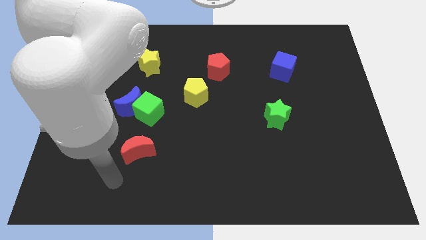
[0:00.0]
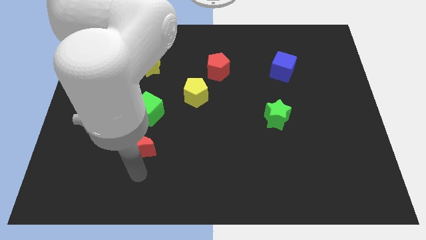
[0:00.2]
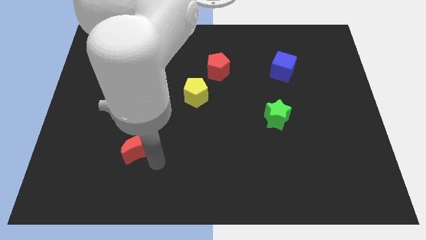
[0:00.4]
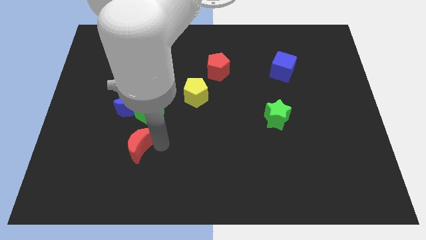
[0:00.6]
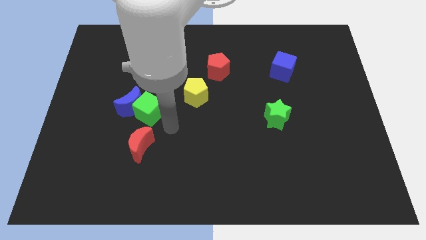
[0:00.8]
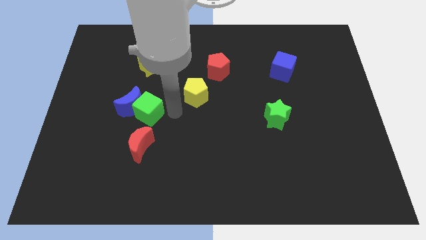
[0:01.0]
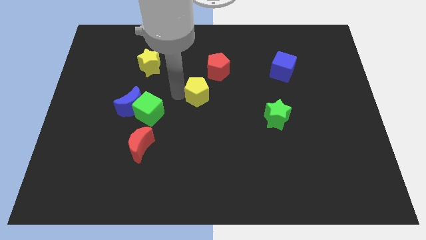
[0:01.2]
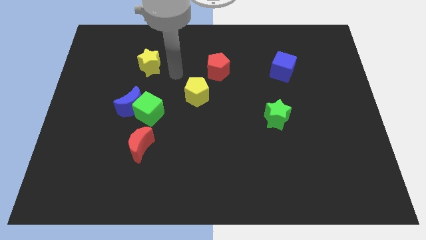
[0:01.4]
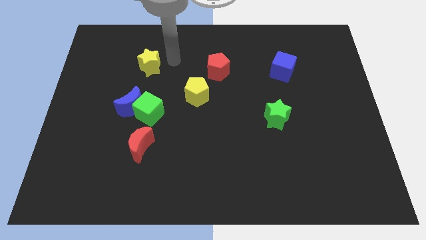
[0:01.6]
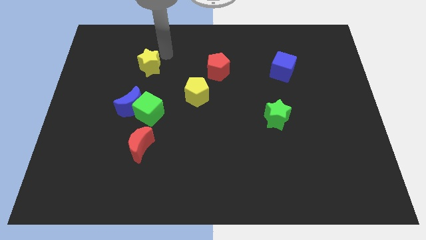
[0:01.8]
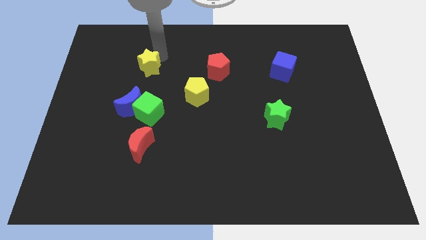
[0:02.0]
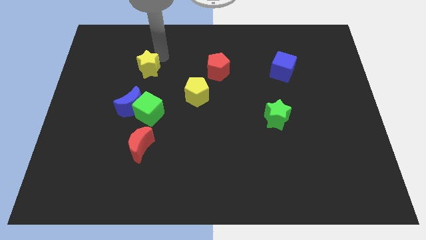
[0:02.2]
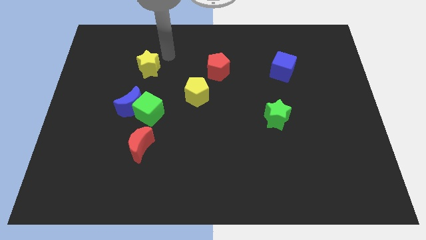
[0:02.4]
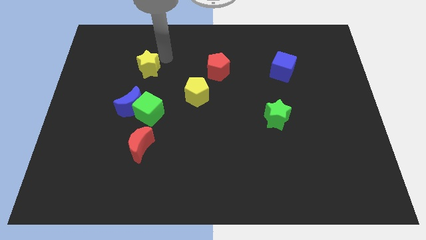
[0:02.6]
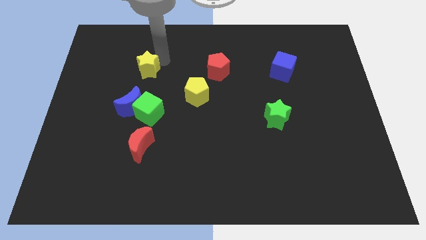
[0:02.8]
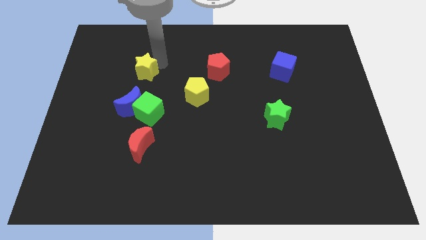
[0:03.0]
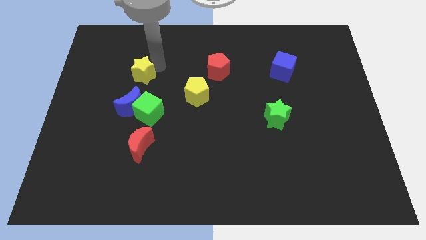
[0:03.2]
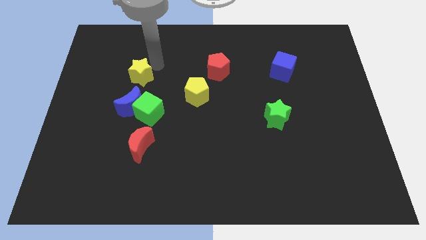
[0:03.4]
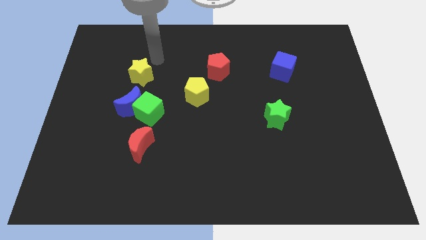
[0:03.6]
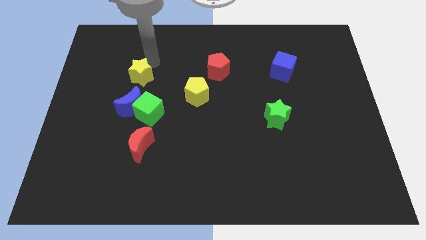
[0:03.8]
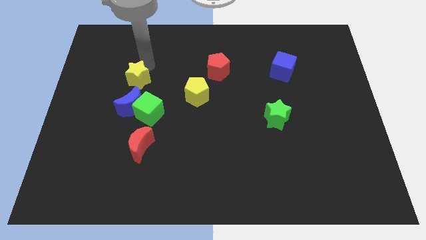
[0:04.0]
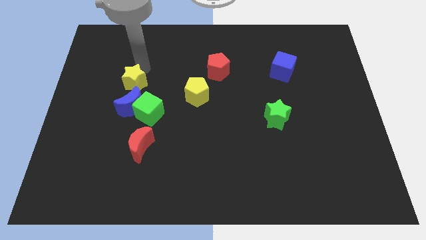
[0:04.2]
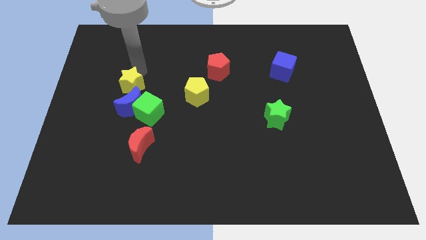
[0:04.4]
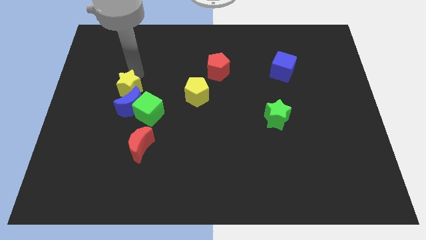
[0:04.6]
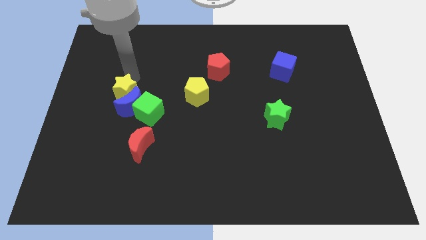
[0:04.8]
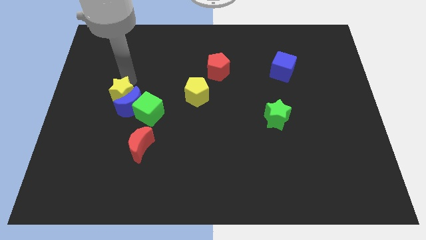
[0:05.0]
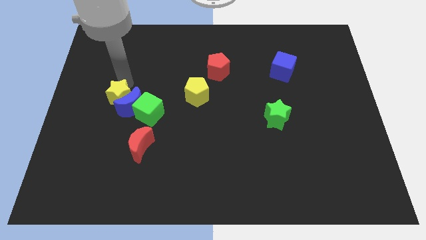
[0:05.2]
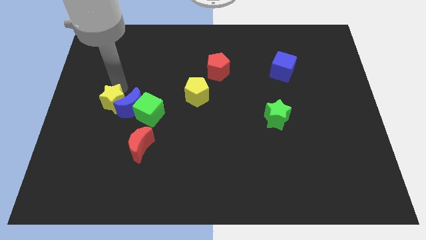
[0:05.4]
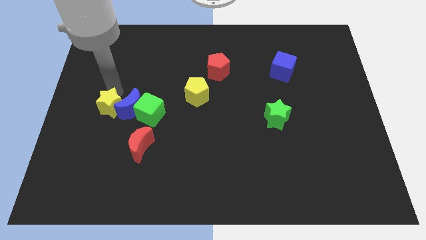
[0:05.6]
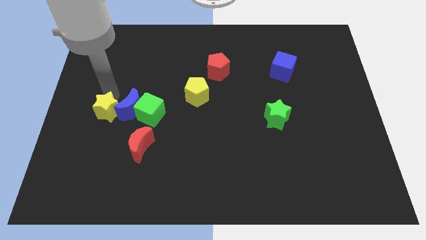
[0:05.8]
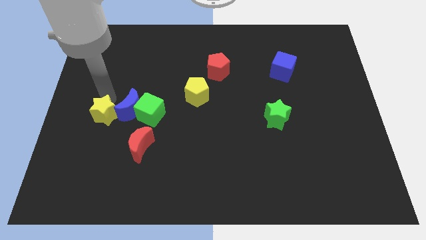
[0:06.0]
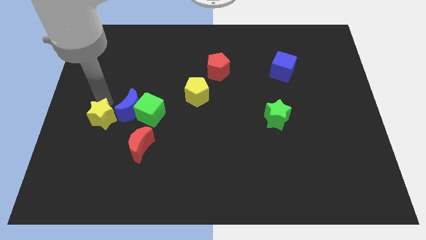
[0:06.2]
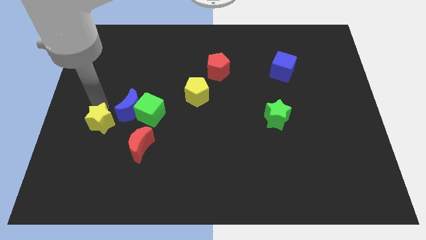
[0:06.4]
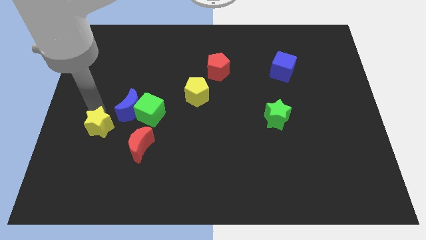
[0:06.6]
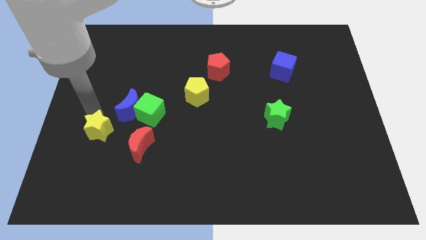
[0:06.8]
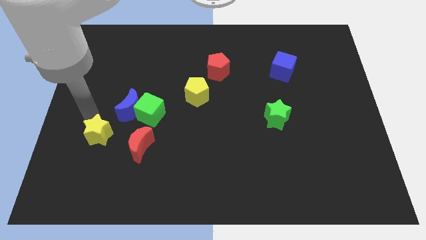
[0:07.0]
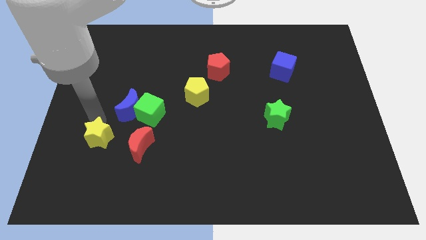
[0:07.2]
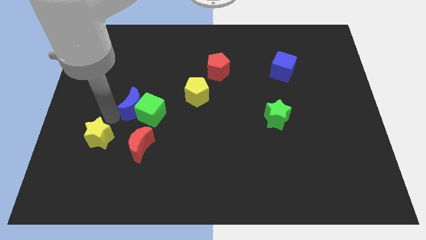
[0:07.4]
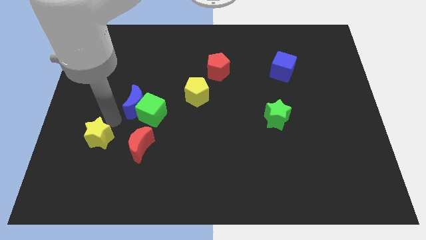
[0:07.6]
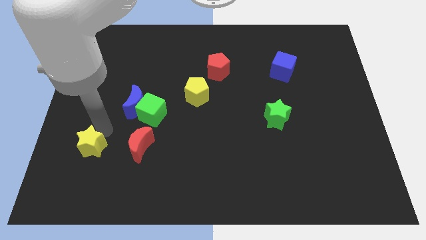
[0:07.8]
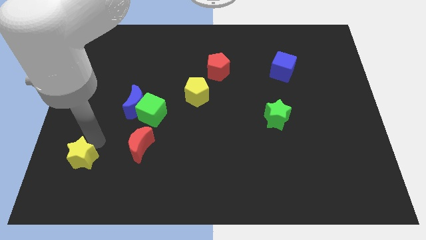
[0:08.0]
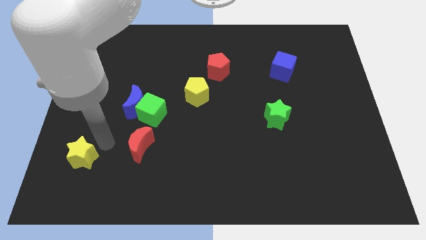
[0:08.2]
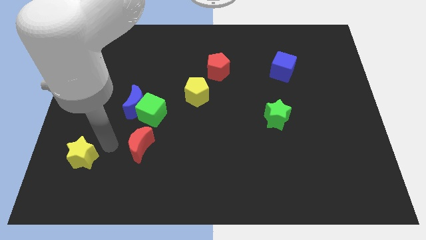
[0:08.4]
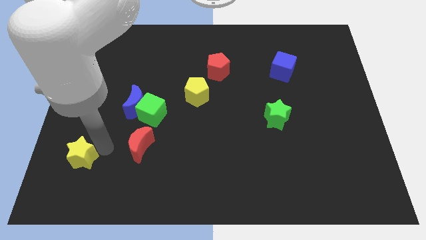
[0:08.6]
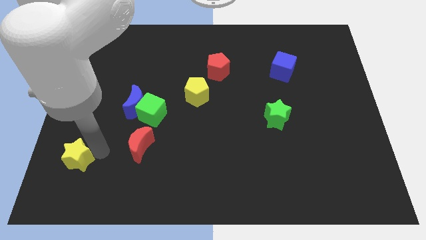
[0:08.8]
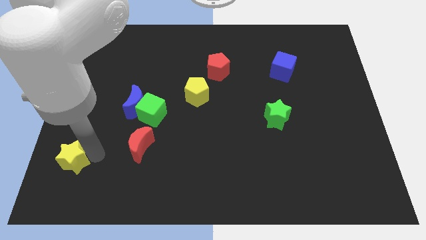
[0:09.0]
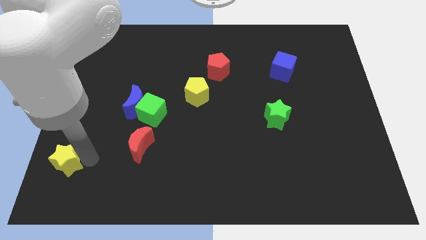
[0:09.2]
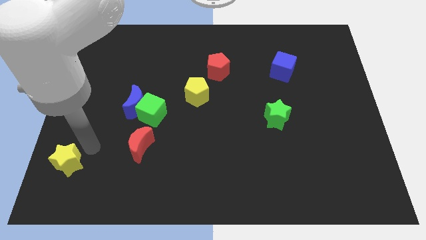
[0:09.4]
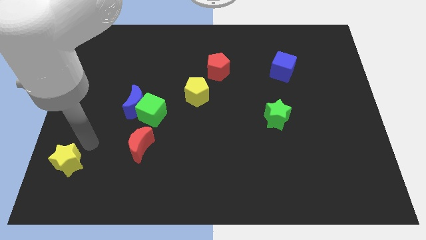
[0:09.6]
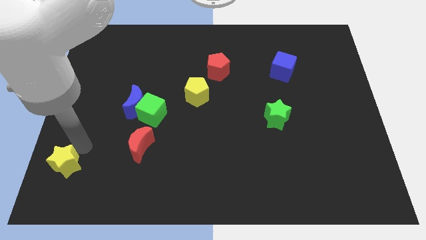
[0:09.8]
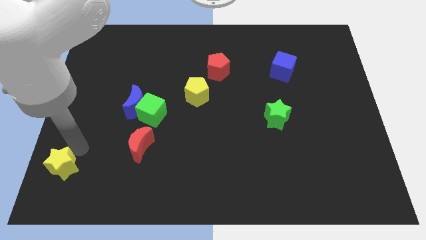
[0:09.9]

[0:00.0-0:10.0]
move the yellow star to the bottom left of the board

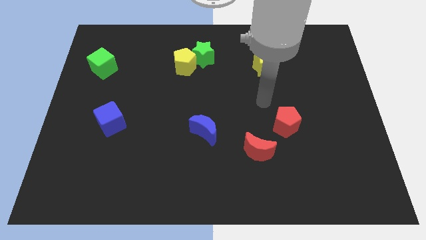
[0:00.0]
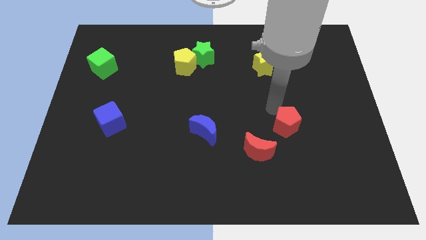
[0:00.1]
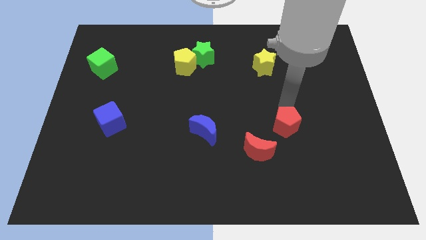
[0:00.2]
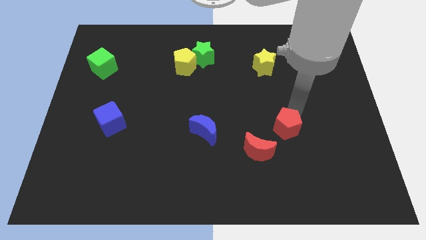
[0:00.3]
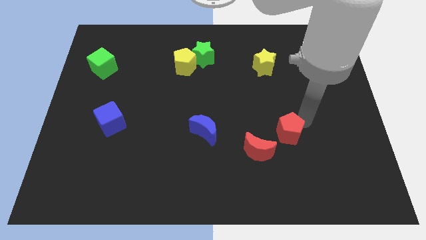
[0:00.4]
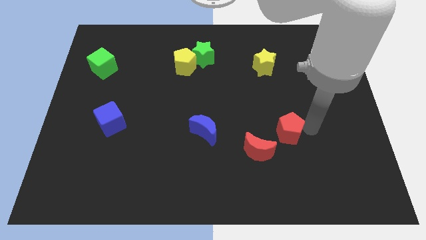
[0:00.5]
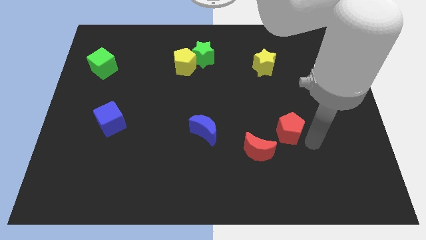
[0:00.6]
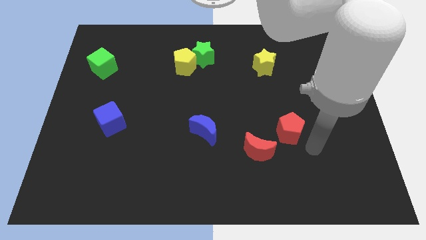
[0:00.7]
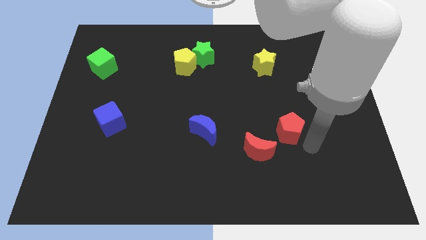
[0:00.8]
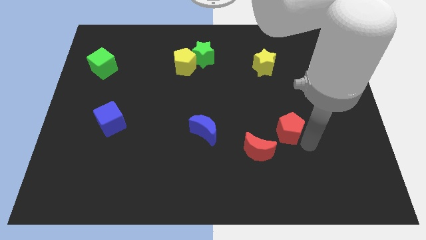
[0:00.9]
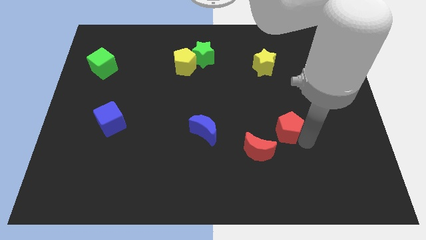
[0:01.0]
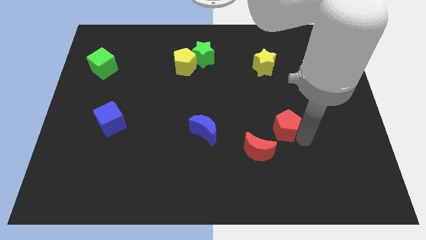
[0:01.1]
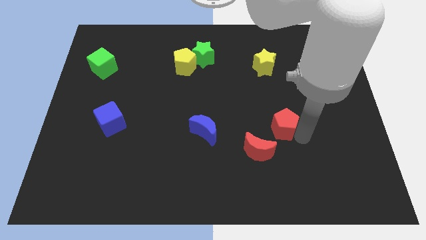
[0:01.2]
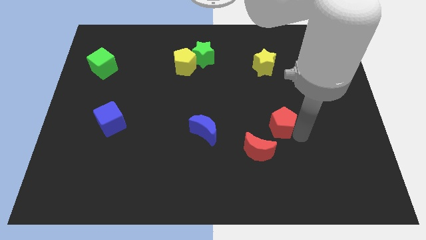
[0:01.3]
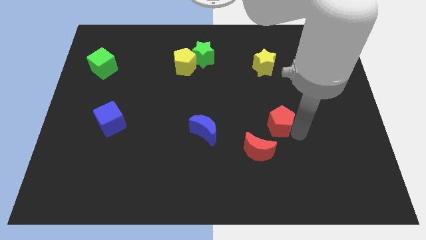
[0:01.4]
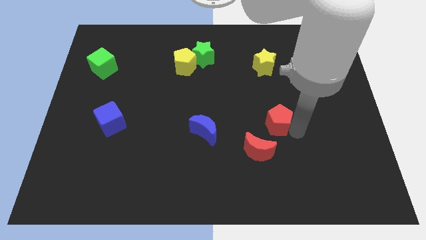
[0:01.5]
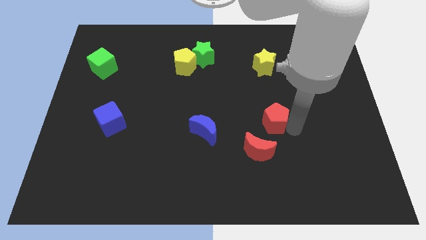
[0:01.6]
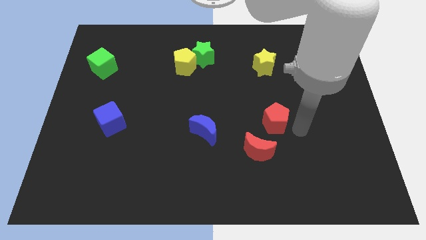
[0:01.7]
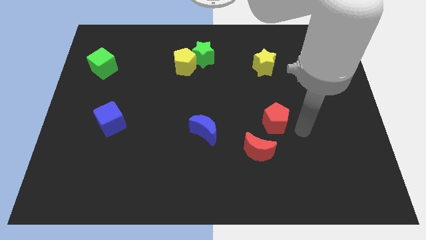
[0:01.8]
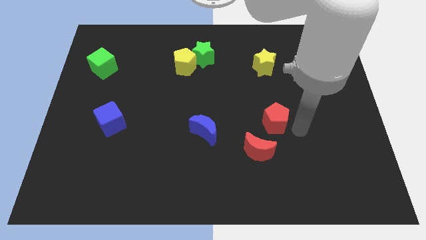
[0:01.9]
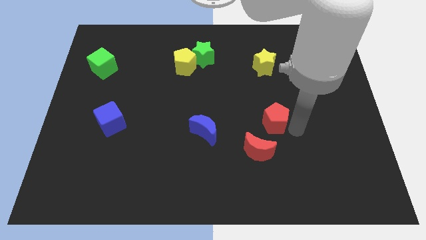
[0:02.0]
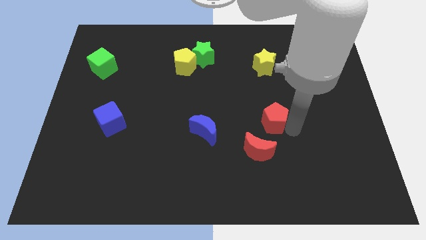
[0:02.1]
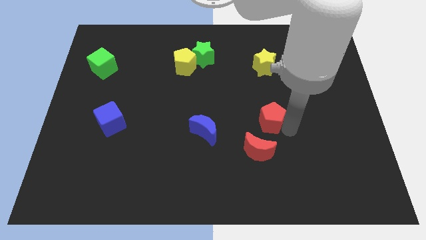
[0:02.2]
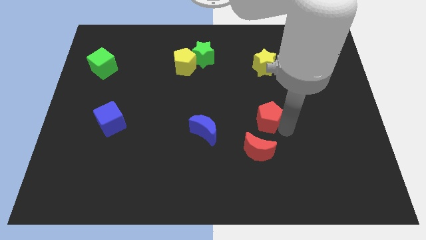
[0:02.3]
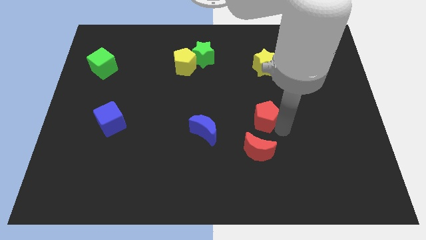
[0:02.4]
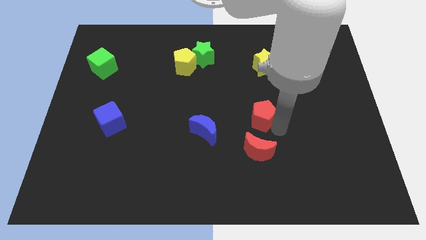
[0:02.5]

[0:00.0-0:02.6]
push the red pentagon to the middle
